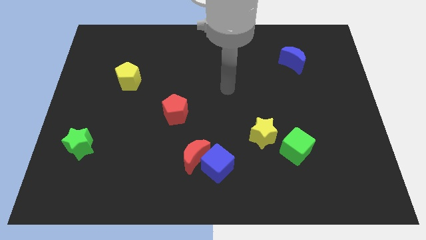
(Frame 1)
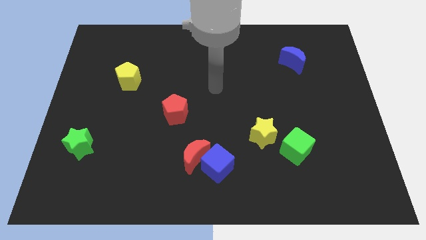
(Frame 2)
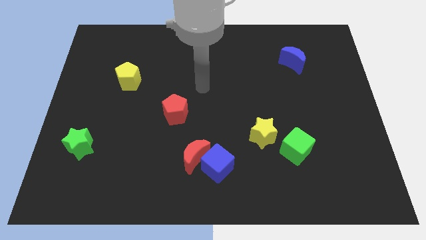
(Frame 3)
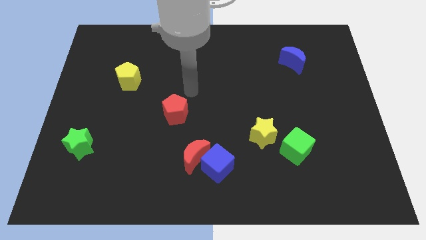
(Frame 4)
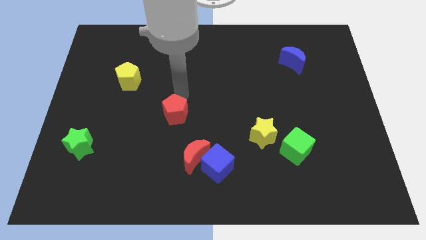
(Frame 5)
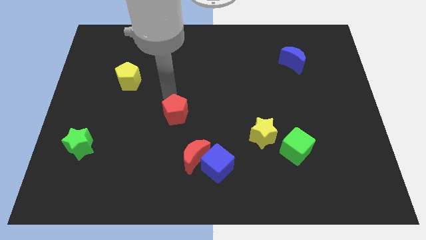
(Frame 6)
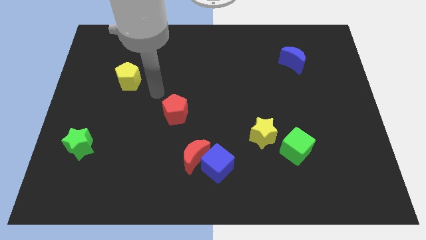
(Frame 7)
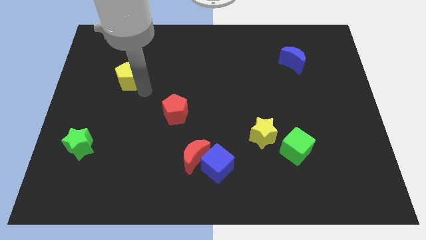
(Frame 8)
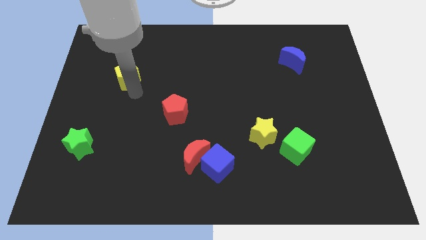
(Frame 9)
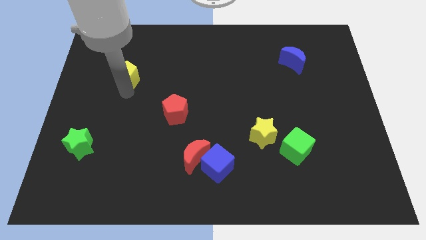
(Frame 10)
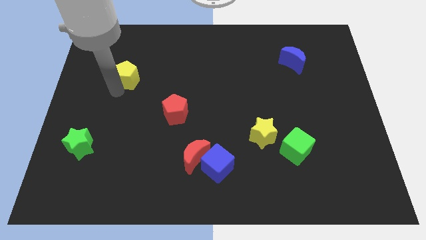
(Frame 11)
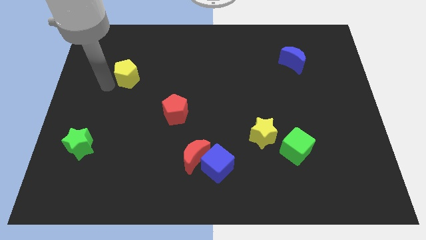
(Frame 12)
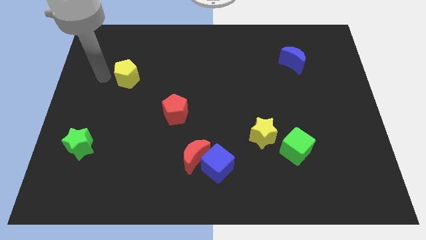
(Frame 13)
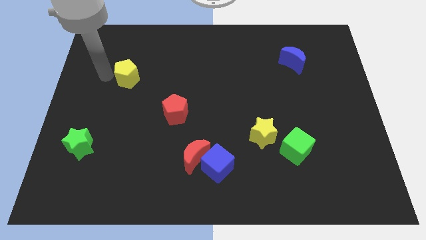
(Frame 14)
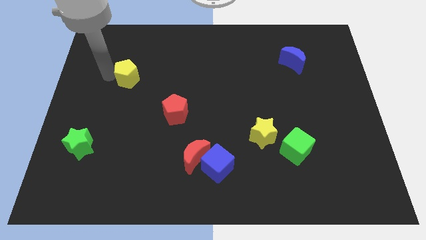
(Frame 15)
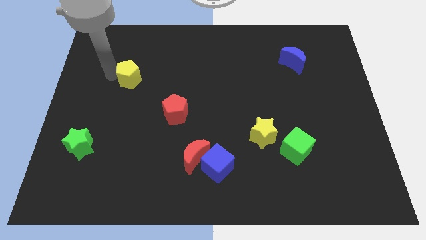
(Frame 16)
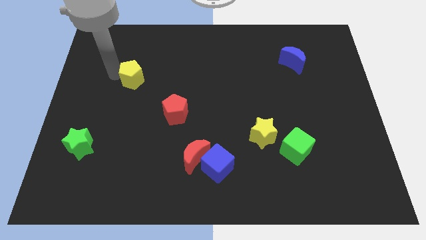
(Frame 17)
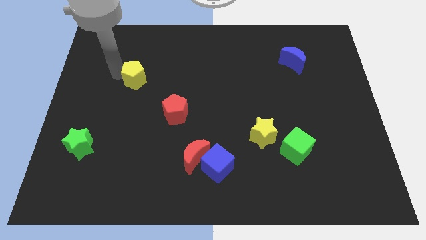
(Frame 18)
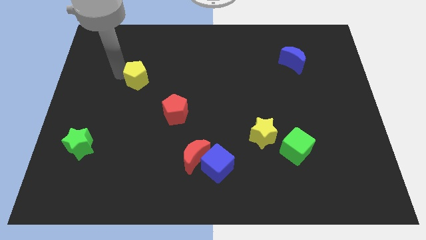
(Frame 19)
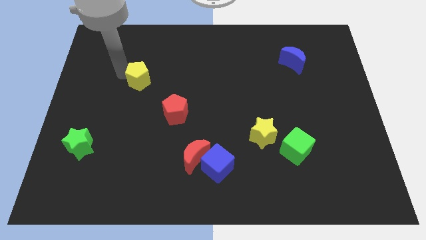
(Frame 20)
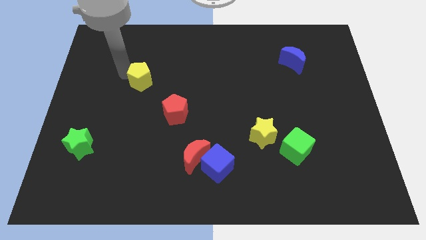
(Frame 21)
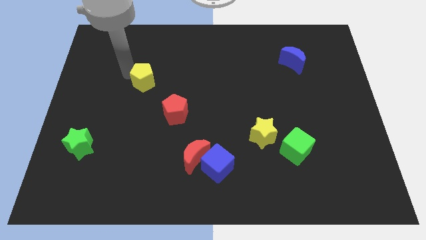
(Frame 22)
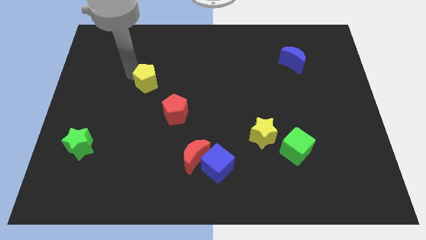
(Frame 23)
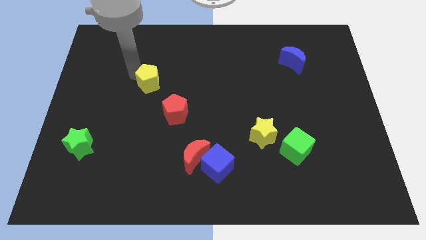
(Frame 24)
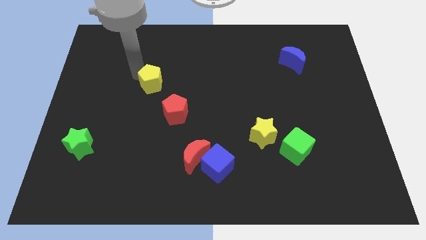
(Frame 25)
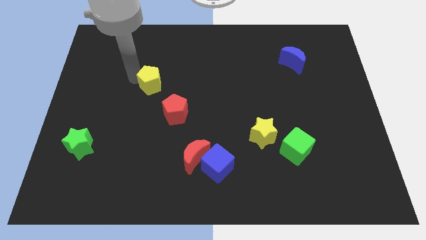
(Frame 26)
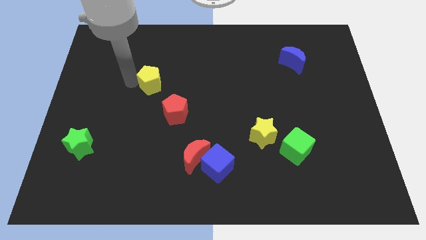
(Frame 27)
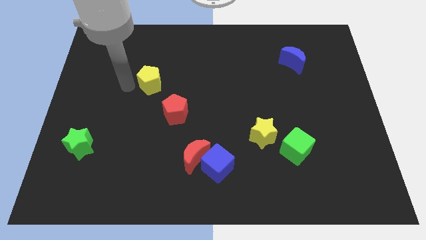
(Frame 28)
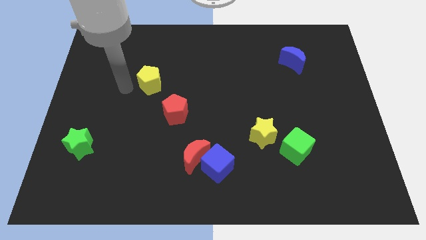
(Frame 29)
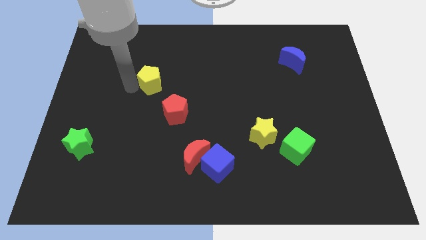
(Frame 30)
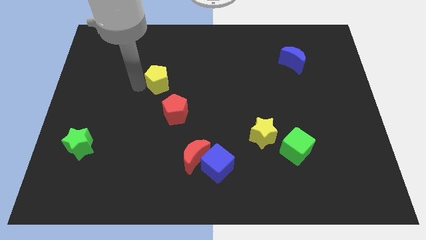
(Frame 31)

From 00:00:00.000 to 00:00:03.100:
slide the yellow pentagon to the right a little

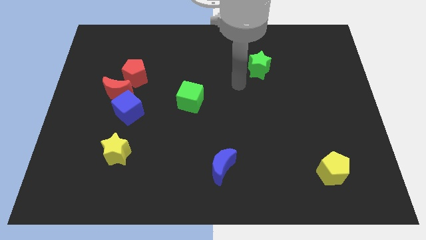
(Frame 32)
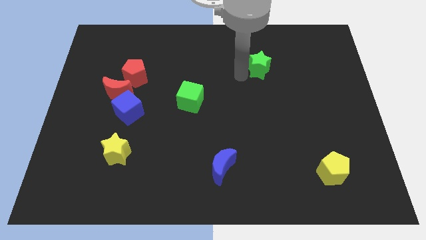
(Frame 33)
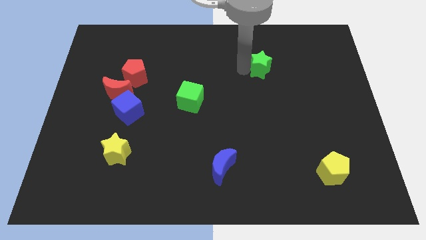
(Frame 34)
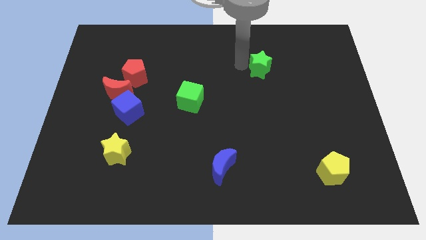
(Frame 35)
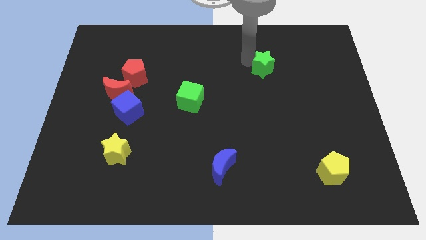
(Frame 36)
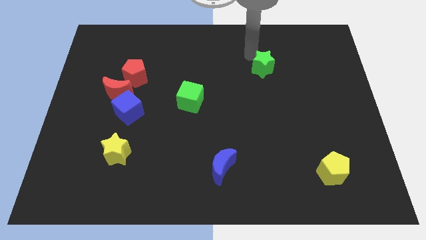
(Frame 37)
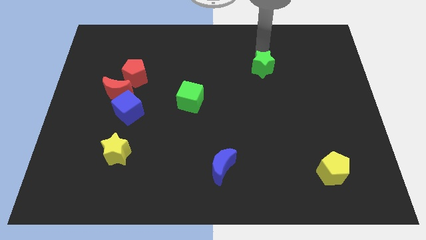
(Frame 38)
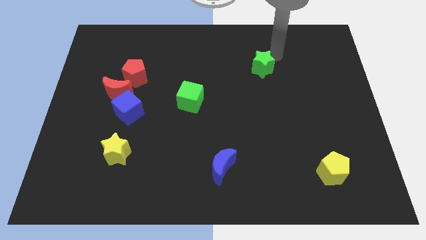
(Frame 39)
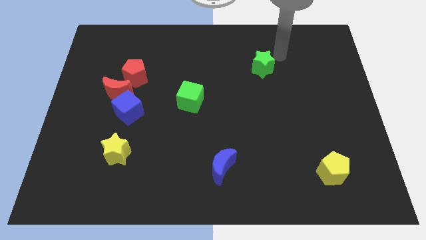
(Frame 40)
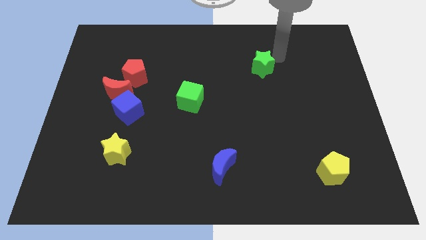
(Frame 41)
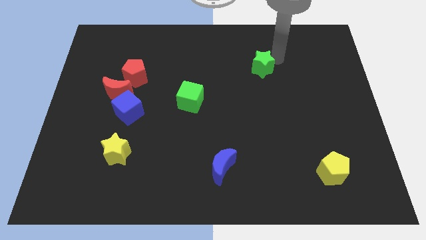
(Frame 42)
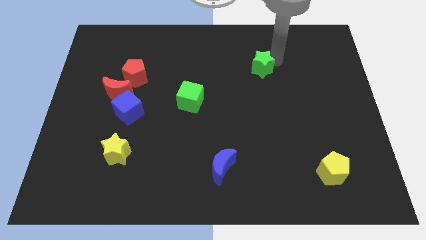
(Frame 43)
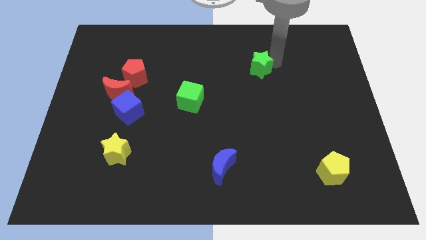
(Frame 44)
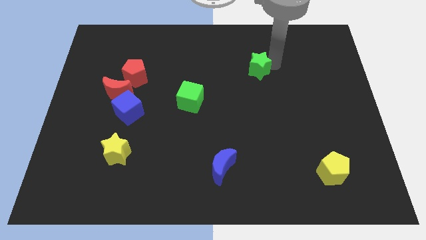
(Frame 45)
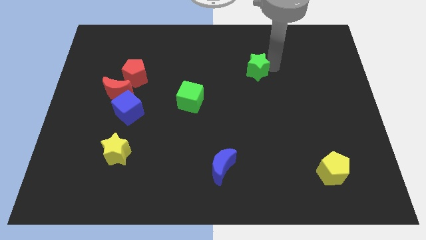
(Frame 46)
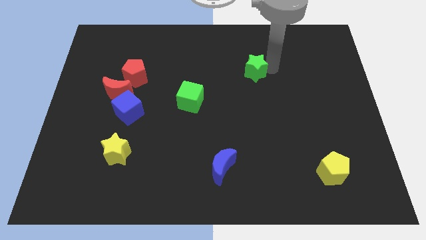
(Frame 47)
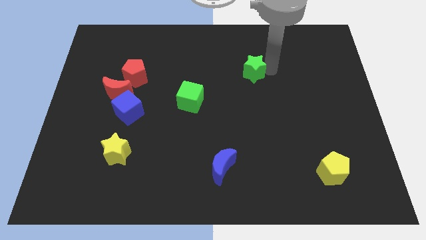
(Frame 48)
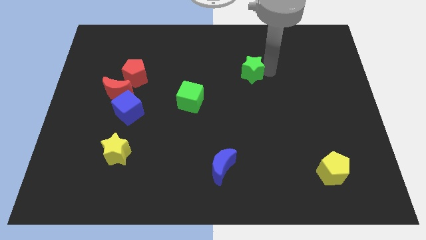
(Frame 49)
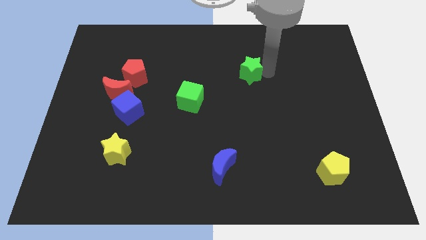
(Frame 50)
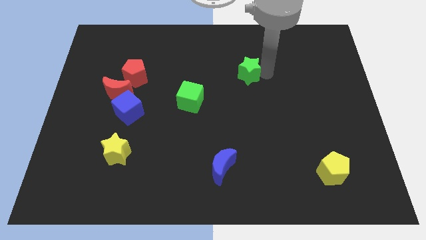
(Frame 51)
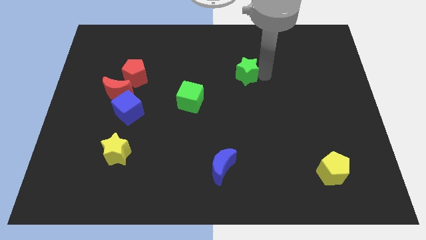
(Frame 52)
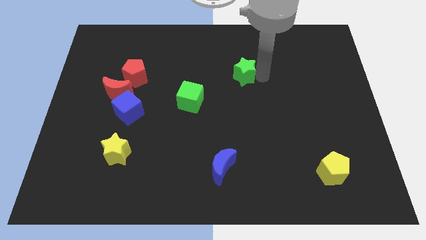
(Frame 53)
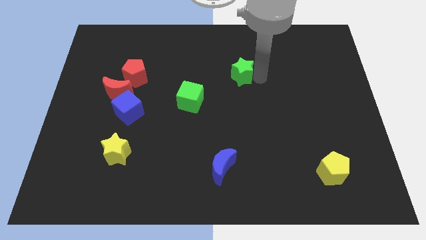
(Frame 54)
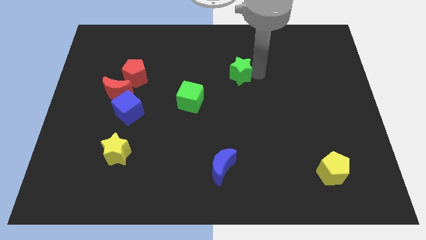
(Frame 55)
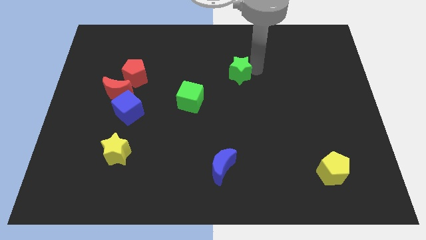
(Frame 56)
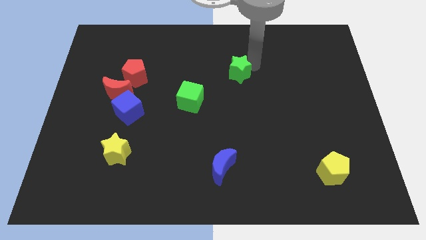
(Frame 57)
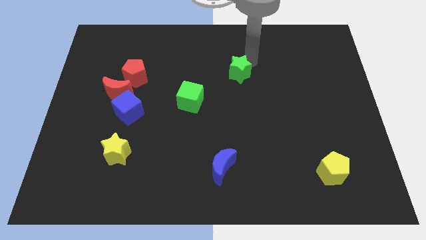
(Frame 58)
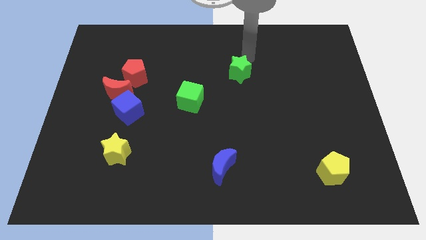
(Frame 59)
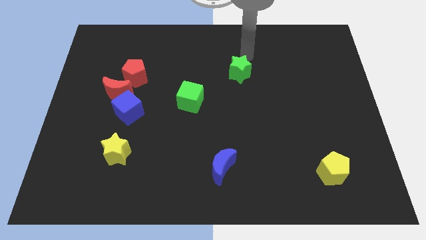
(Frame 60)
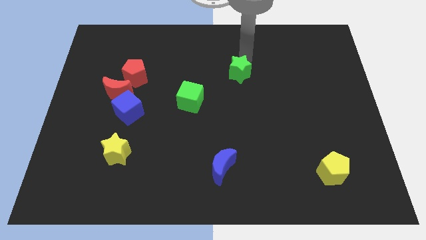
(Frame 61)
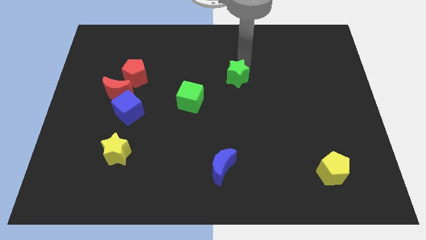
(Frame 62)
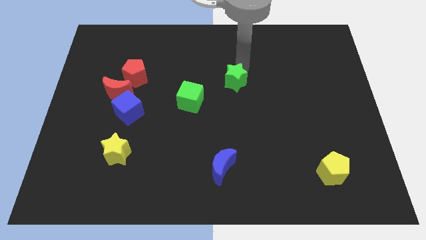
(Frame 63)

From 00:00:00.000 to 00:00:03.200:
slightly slide the green star down and left

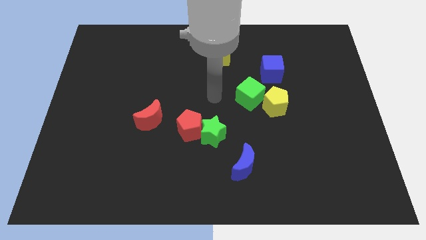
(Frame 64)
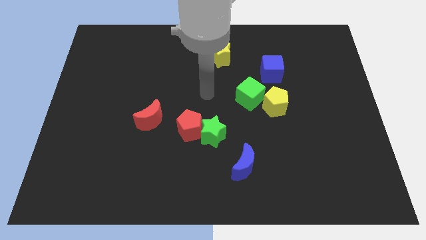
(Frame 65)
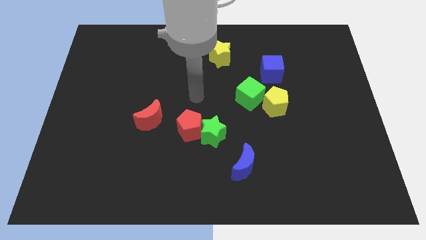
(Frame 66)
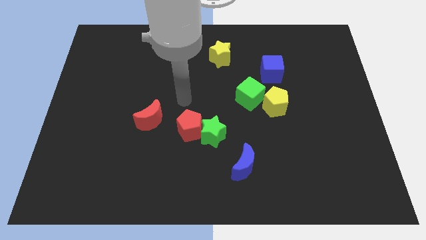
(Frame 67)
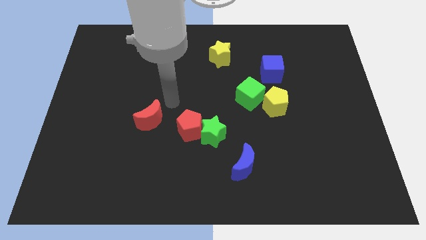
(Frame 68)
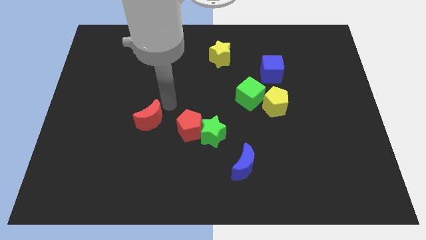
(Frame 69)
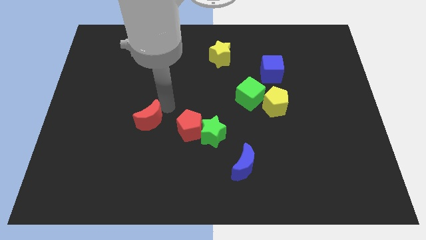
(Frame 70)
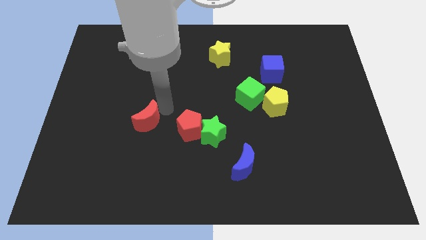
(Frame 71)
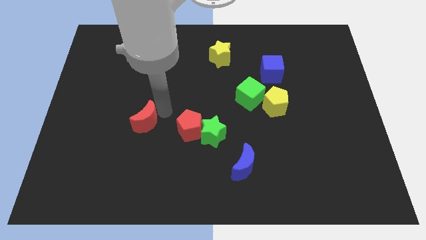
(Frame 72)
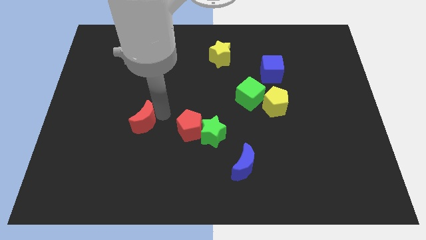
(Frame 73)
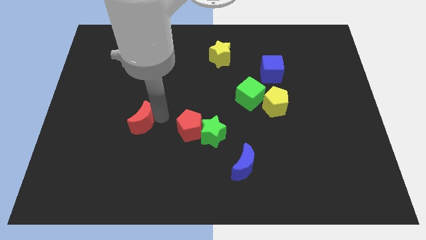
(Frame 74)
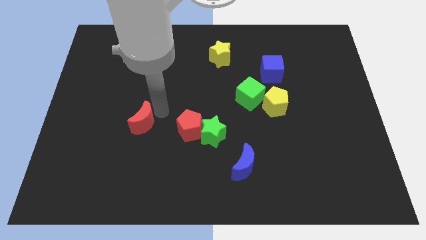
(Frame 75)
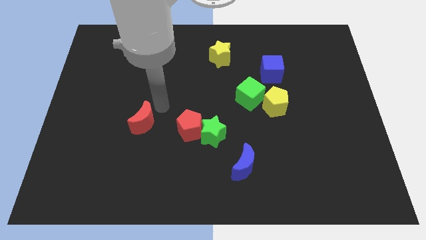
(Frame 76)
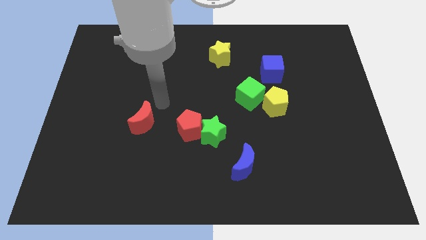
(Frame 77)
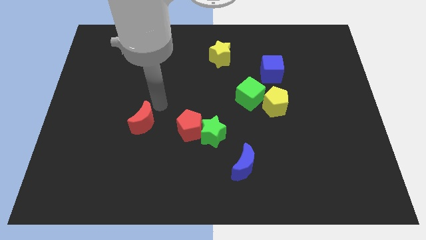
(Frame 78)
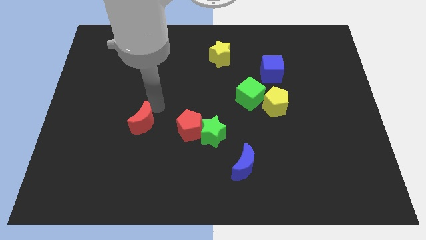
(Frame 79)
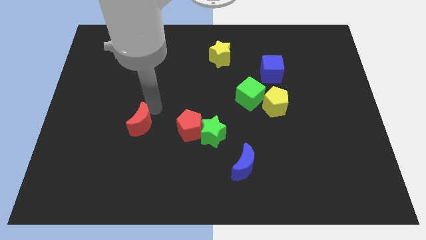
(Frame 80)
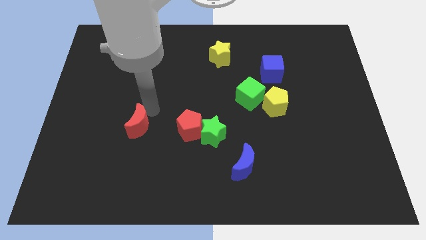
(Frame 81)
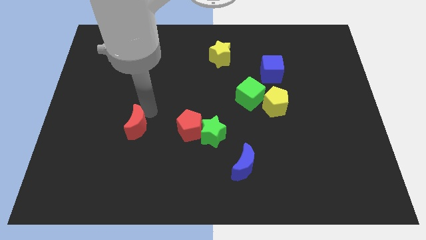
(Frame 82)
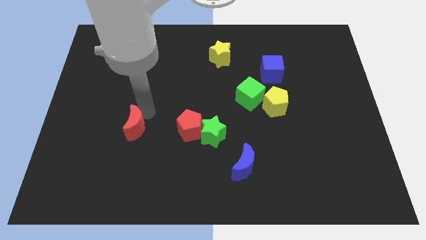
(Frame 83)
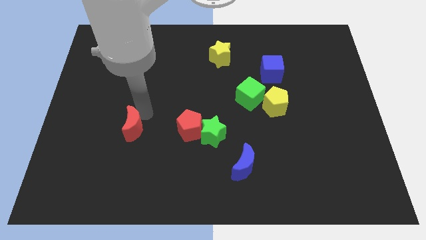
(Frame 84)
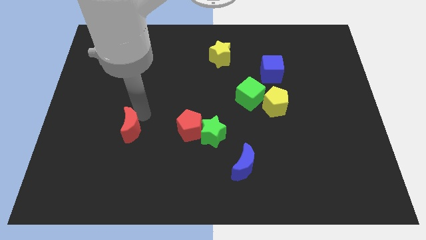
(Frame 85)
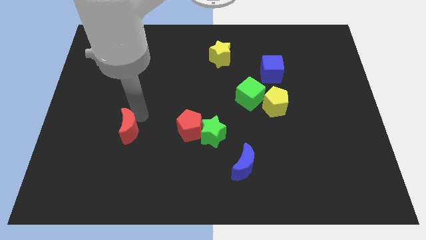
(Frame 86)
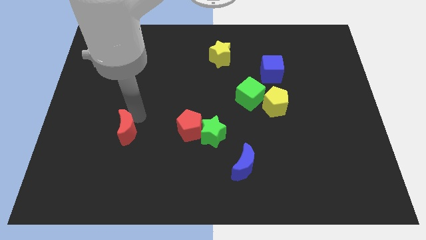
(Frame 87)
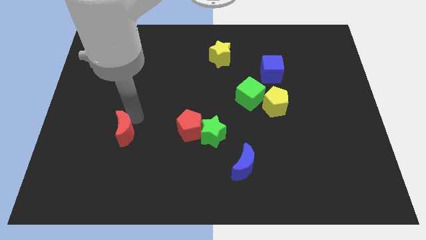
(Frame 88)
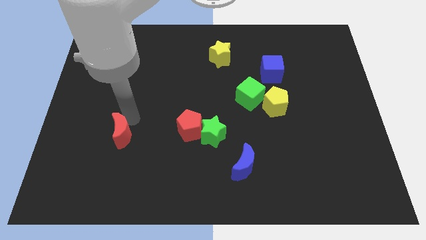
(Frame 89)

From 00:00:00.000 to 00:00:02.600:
push the red moon downwards and then to the left slightly
